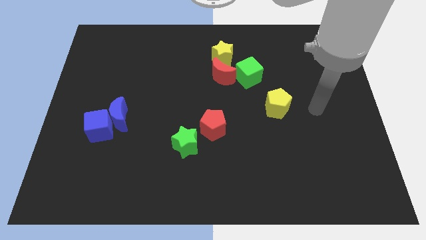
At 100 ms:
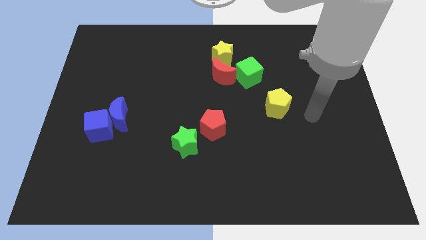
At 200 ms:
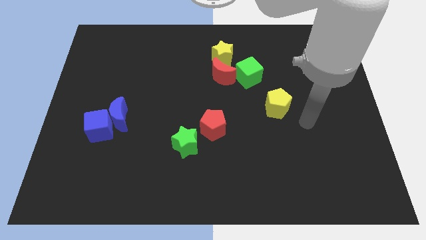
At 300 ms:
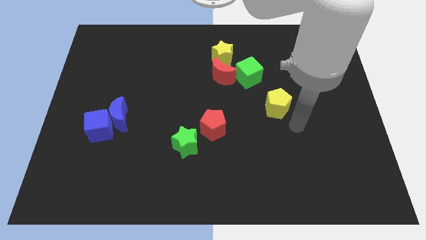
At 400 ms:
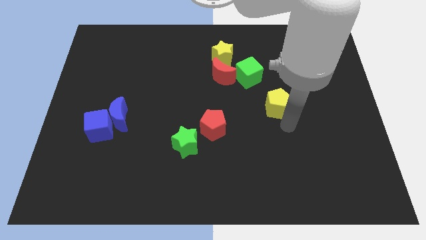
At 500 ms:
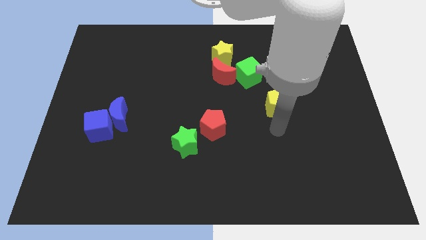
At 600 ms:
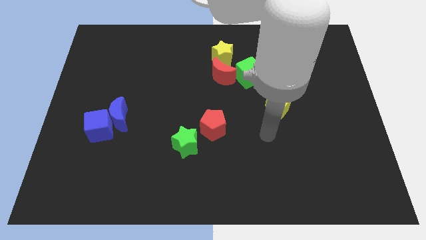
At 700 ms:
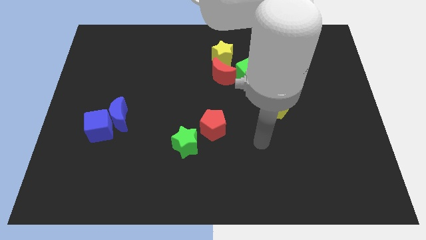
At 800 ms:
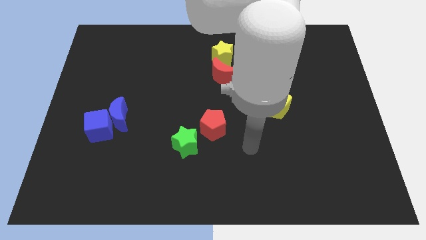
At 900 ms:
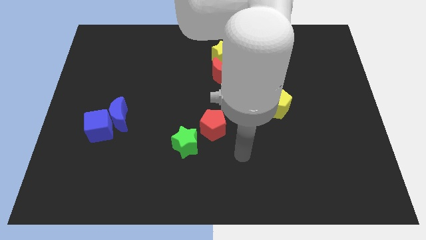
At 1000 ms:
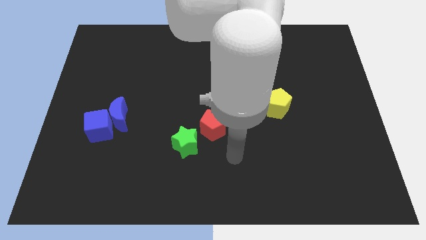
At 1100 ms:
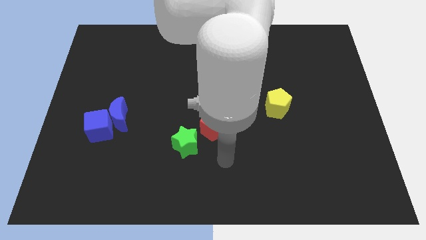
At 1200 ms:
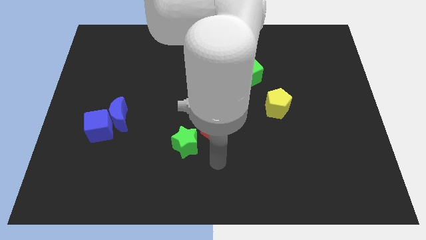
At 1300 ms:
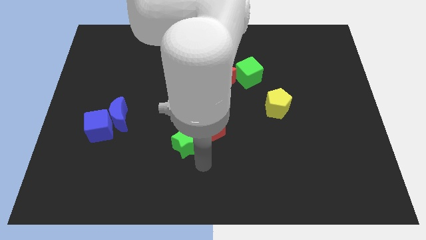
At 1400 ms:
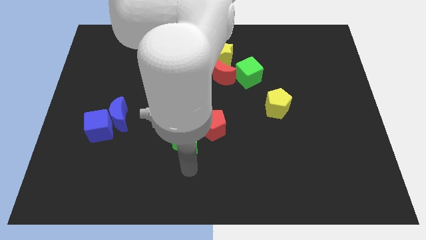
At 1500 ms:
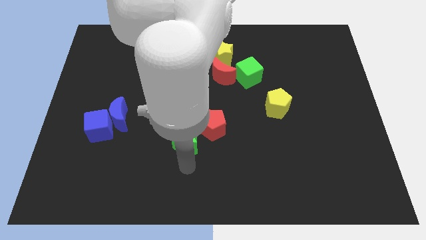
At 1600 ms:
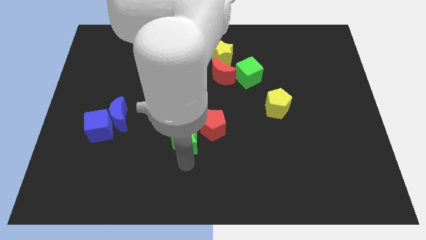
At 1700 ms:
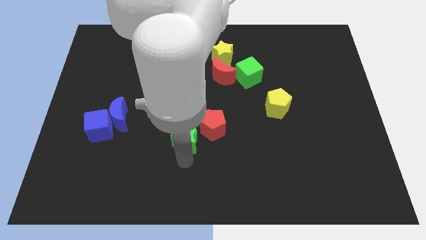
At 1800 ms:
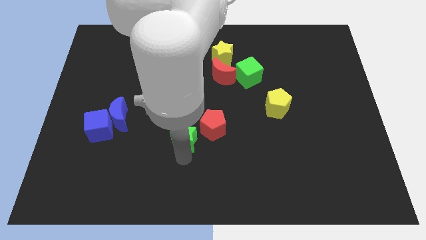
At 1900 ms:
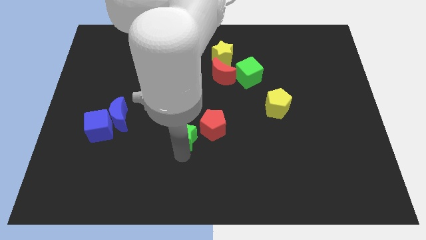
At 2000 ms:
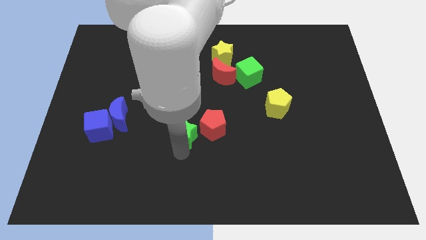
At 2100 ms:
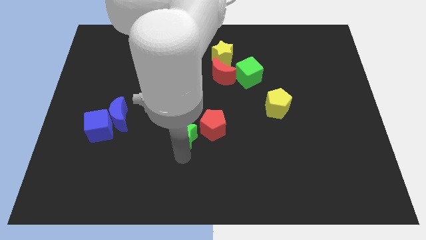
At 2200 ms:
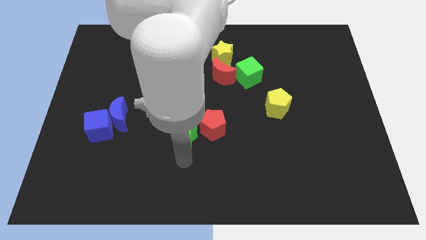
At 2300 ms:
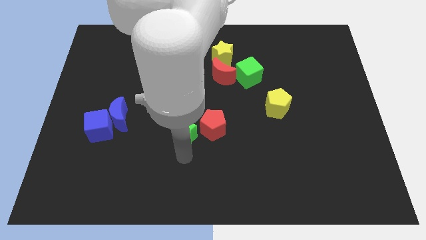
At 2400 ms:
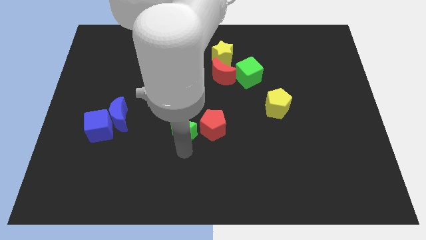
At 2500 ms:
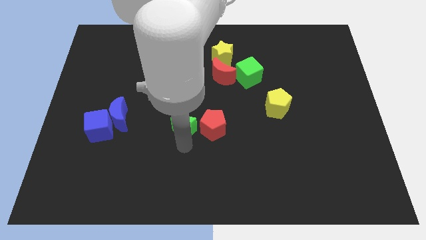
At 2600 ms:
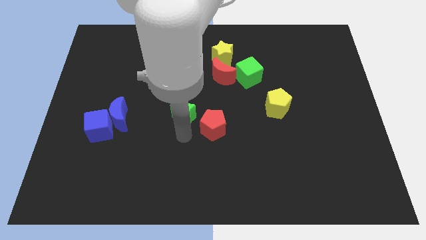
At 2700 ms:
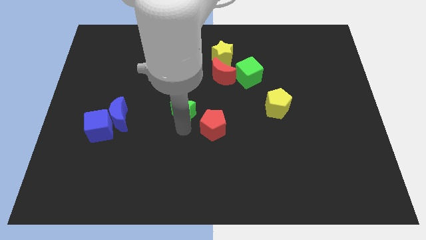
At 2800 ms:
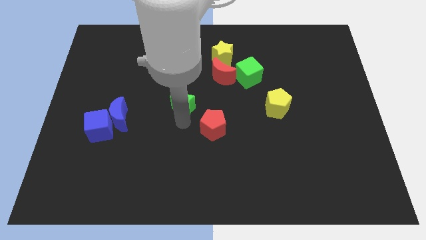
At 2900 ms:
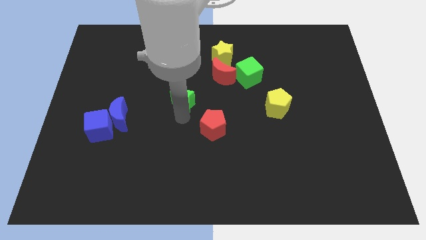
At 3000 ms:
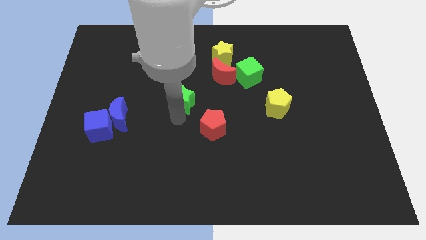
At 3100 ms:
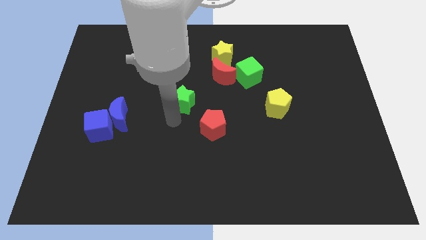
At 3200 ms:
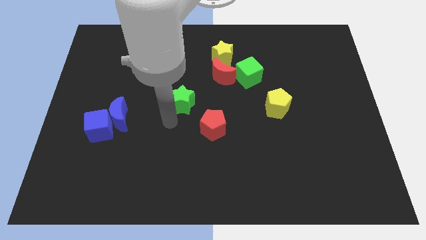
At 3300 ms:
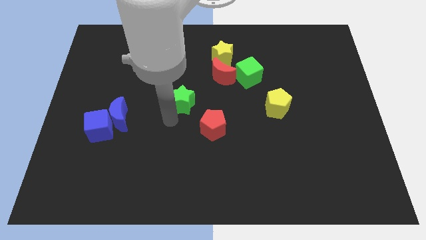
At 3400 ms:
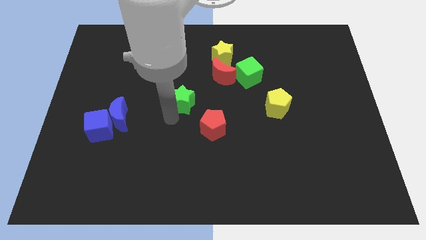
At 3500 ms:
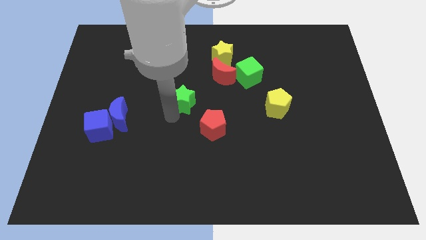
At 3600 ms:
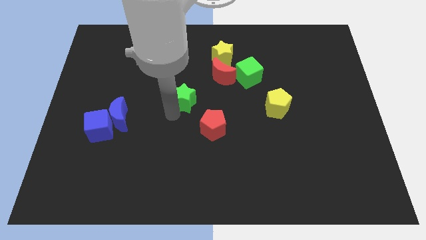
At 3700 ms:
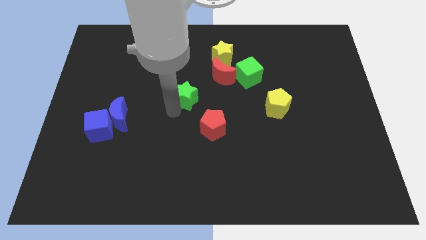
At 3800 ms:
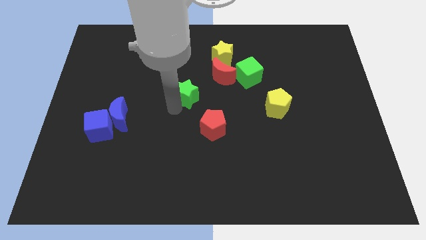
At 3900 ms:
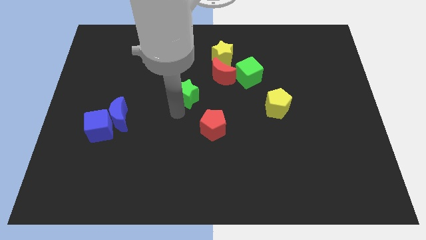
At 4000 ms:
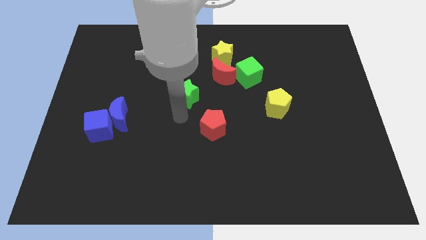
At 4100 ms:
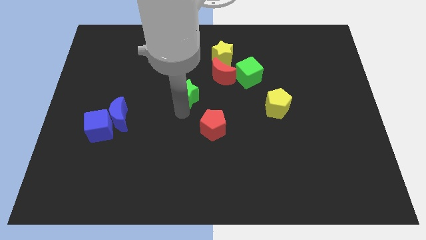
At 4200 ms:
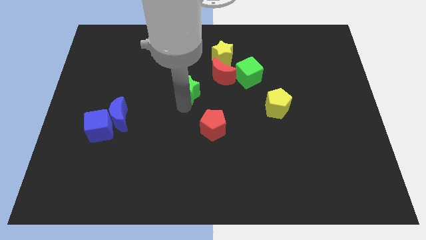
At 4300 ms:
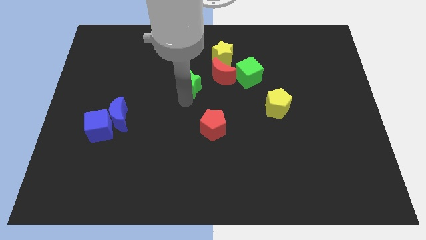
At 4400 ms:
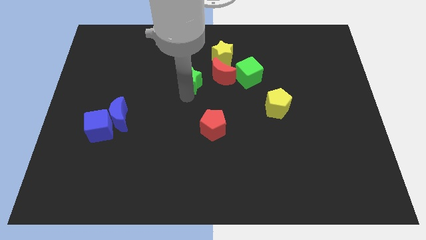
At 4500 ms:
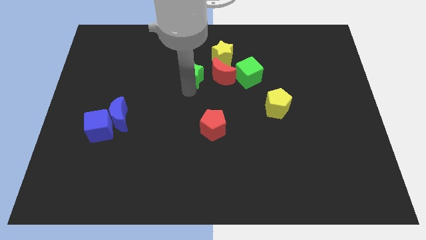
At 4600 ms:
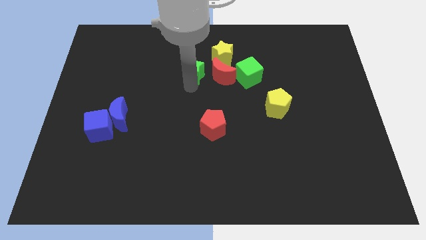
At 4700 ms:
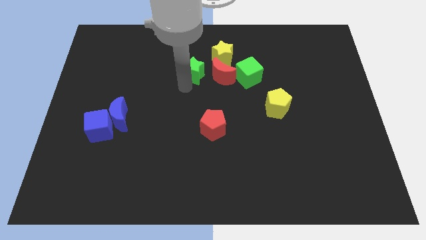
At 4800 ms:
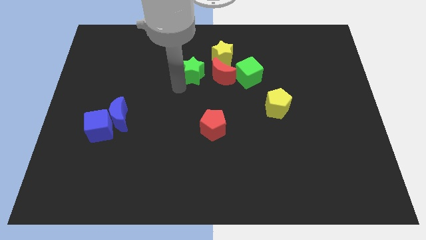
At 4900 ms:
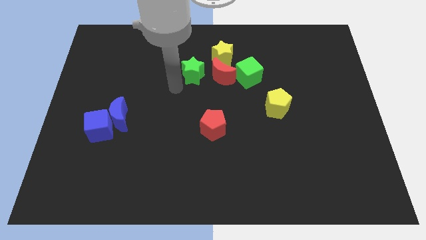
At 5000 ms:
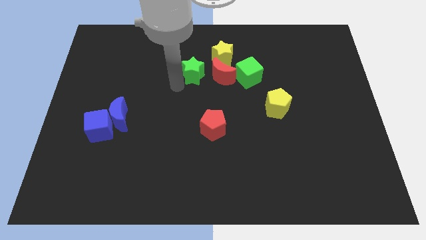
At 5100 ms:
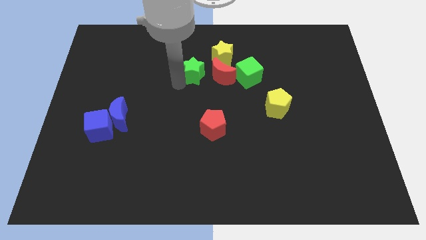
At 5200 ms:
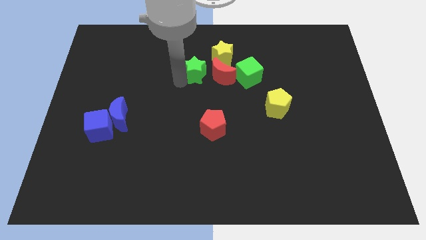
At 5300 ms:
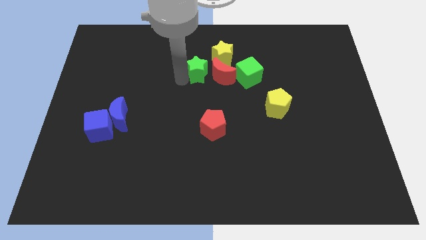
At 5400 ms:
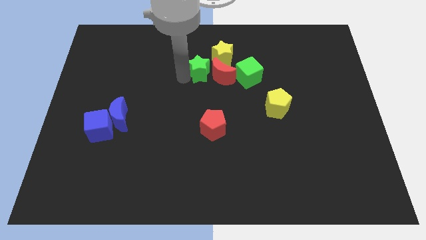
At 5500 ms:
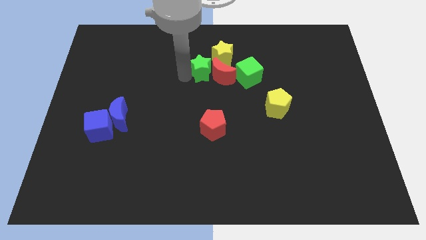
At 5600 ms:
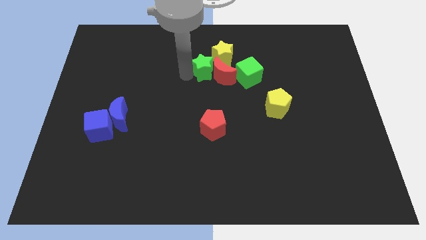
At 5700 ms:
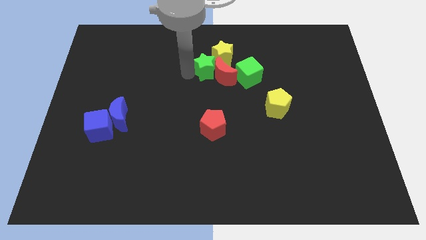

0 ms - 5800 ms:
push the green star next to the yellow star

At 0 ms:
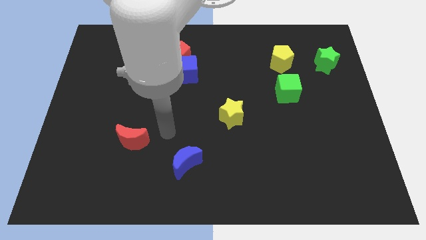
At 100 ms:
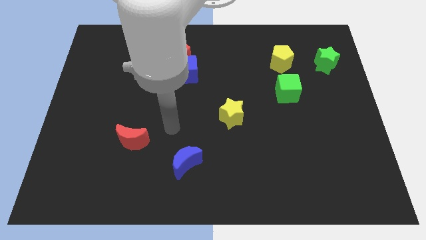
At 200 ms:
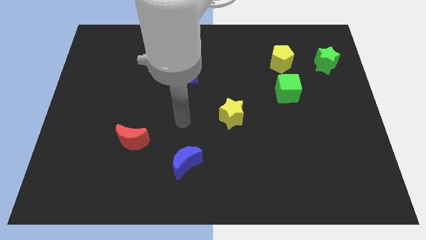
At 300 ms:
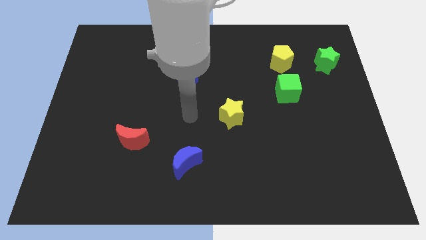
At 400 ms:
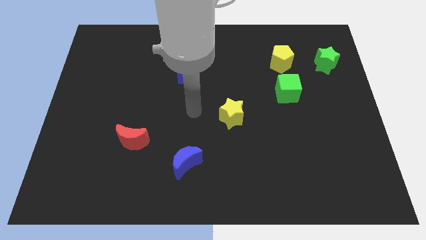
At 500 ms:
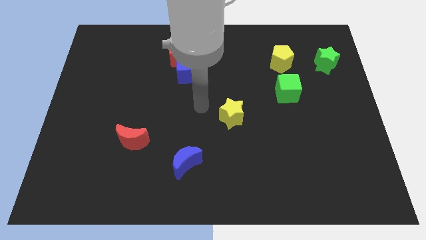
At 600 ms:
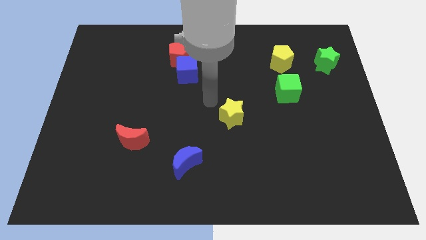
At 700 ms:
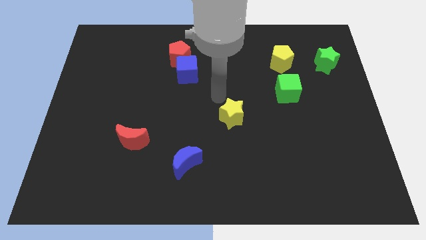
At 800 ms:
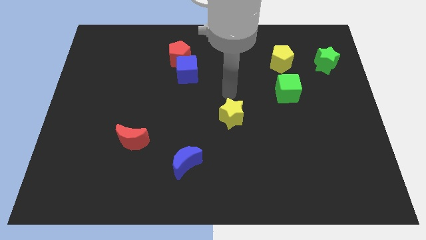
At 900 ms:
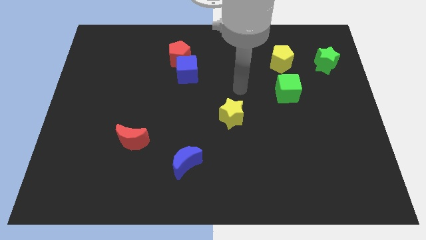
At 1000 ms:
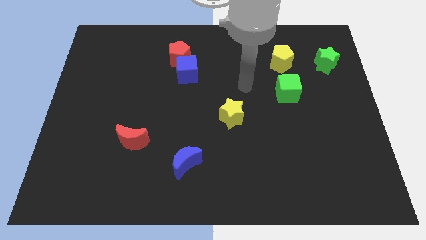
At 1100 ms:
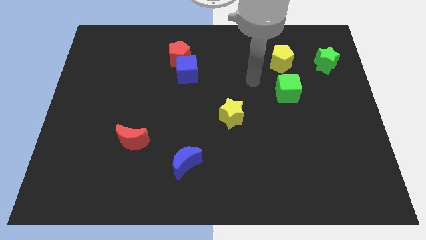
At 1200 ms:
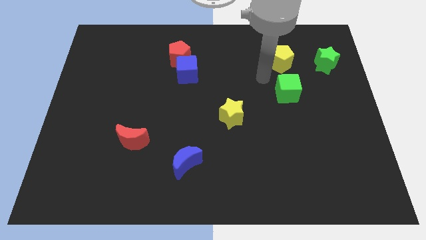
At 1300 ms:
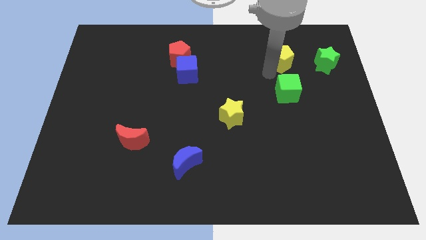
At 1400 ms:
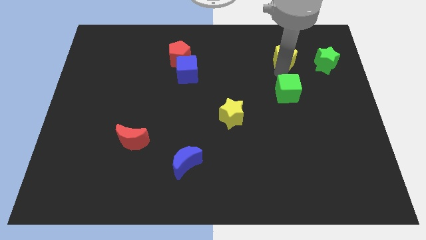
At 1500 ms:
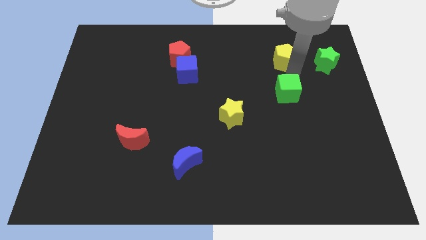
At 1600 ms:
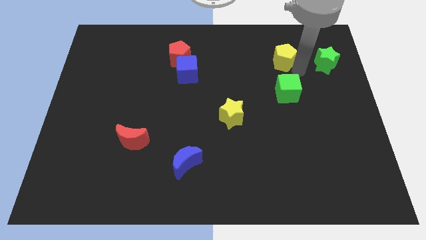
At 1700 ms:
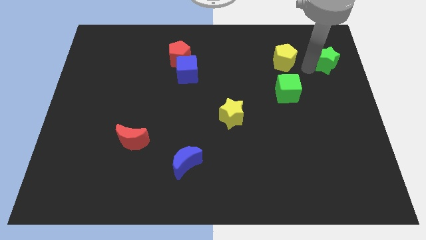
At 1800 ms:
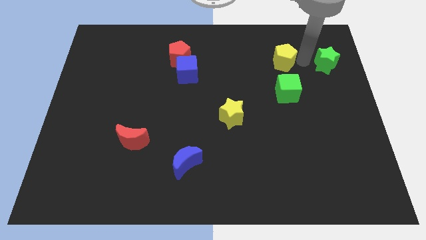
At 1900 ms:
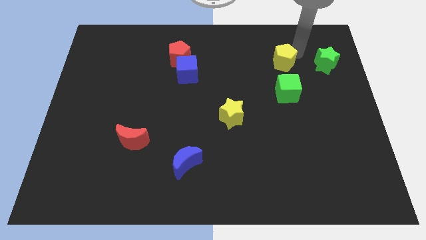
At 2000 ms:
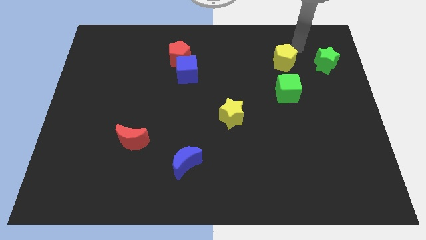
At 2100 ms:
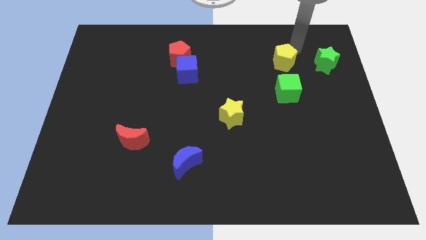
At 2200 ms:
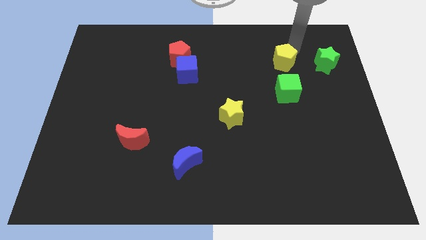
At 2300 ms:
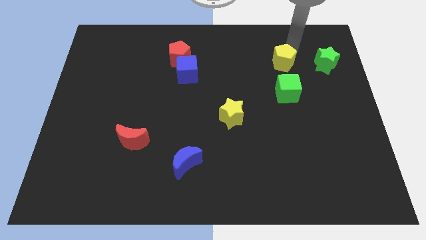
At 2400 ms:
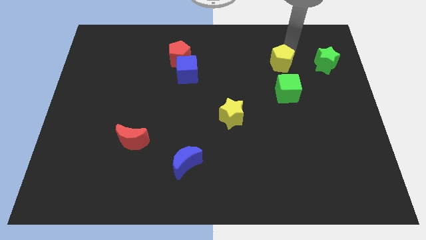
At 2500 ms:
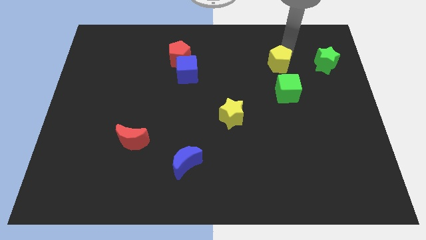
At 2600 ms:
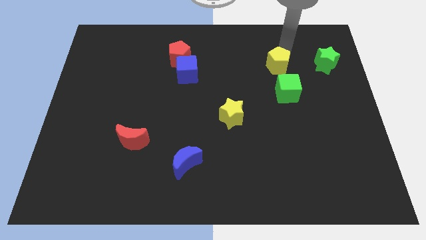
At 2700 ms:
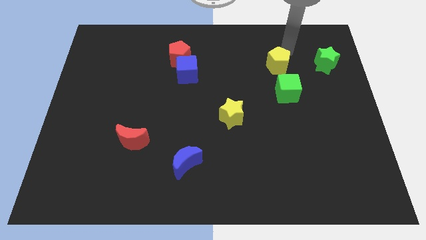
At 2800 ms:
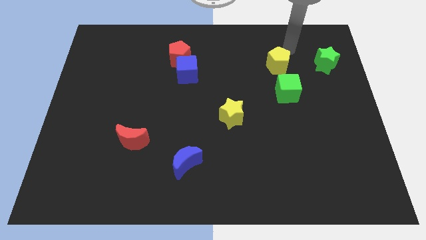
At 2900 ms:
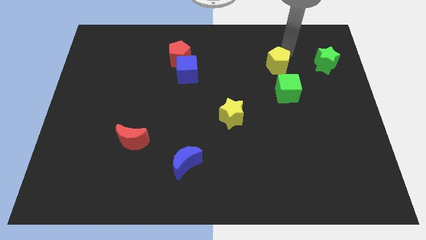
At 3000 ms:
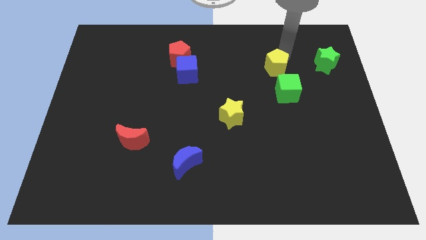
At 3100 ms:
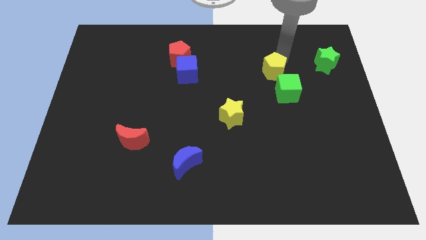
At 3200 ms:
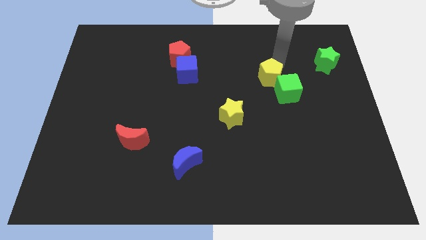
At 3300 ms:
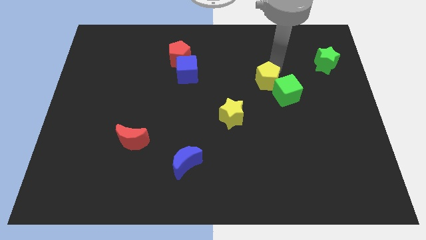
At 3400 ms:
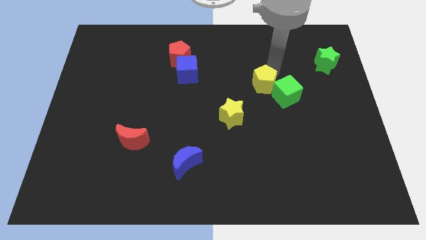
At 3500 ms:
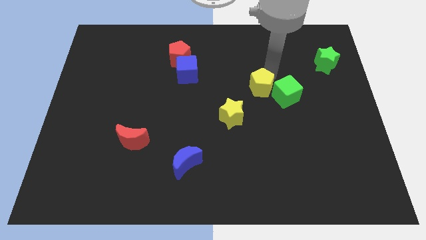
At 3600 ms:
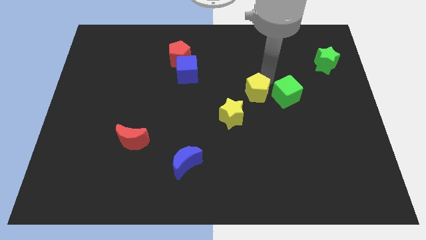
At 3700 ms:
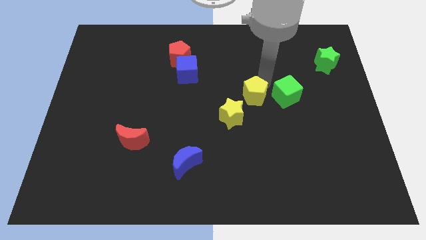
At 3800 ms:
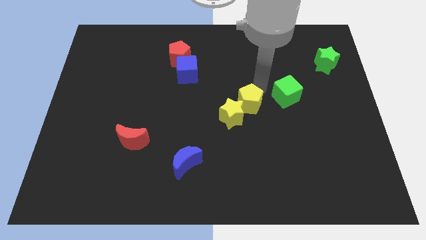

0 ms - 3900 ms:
move the yellow pentagon towards the yellow star
